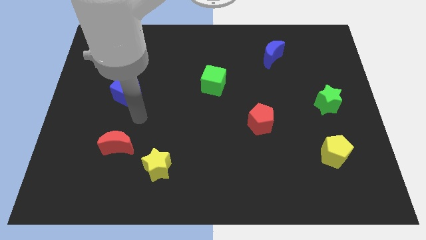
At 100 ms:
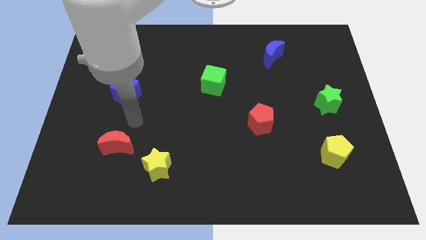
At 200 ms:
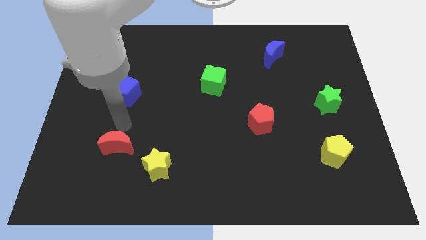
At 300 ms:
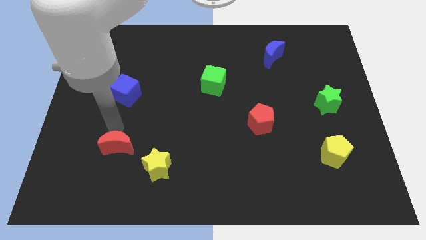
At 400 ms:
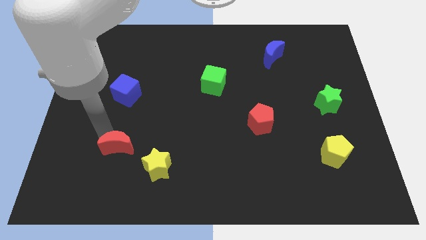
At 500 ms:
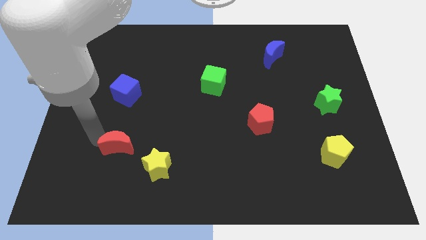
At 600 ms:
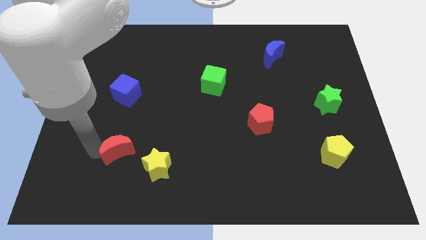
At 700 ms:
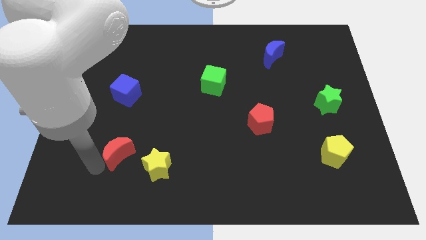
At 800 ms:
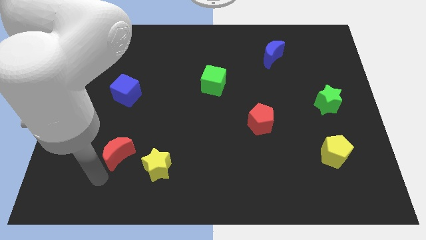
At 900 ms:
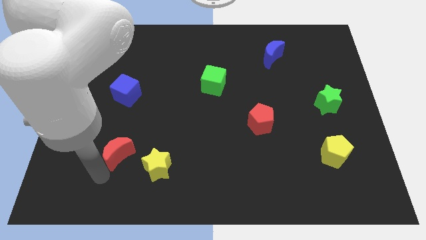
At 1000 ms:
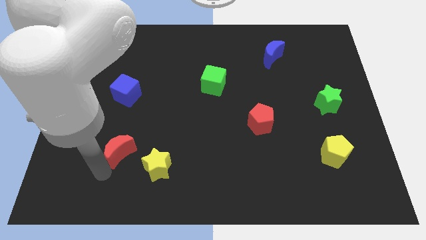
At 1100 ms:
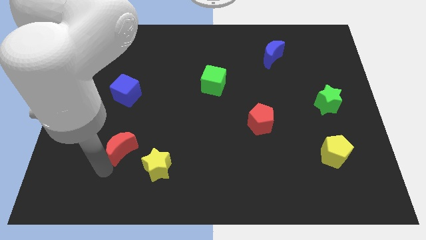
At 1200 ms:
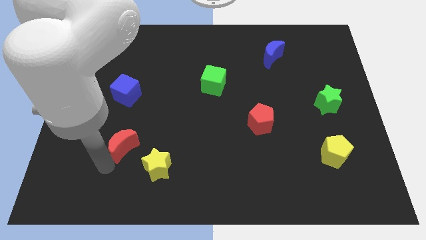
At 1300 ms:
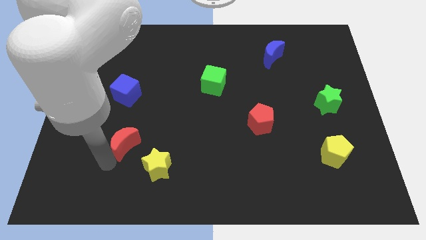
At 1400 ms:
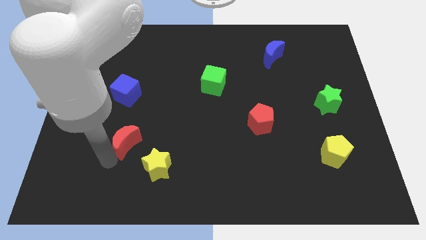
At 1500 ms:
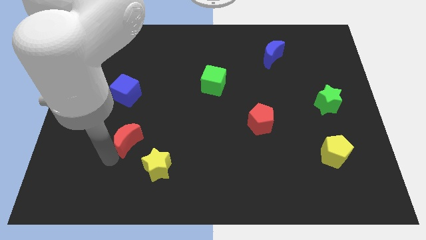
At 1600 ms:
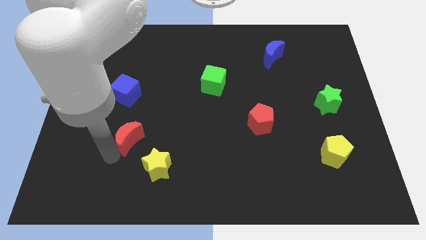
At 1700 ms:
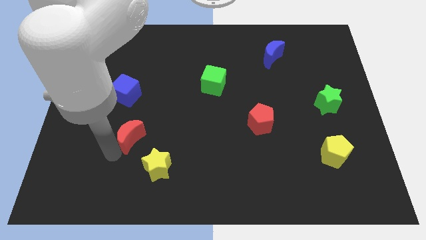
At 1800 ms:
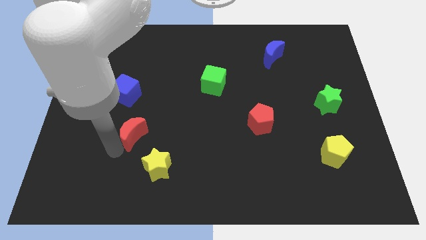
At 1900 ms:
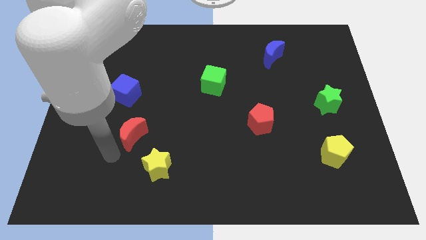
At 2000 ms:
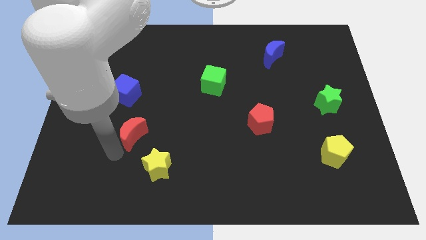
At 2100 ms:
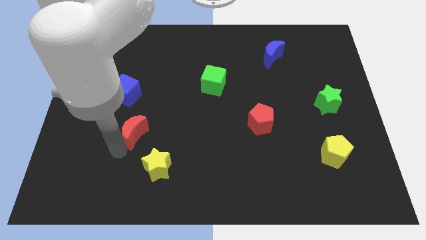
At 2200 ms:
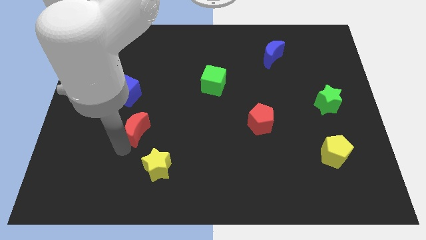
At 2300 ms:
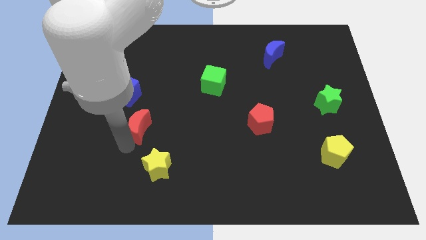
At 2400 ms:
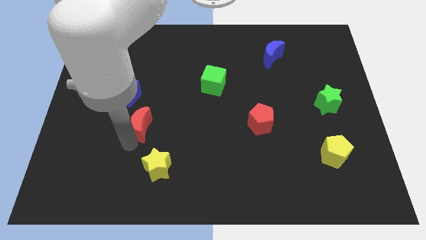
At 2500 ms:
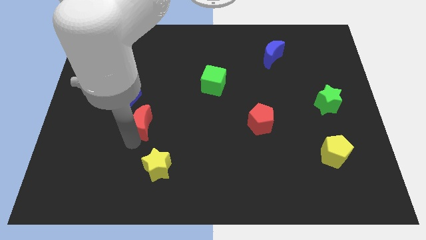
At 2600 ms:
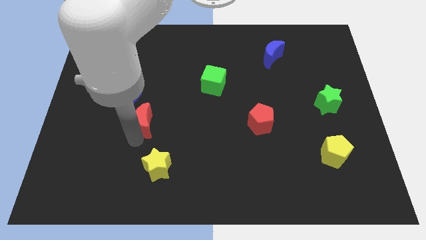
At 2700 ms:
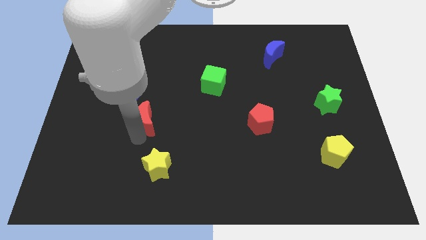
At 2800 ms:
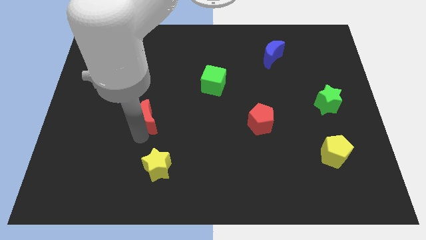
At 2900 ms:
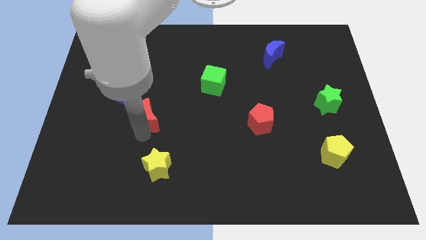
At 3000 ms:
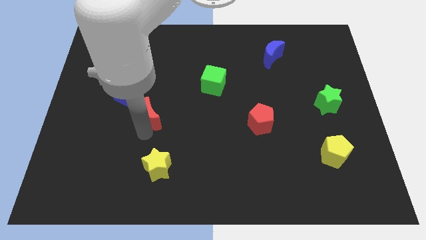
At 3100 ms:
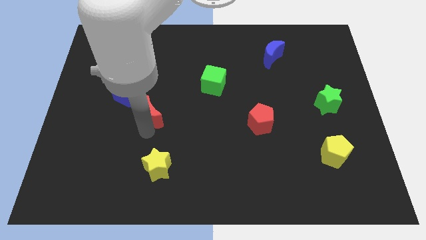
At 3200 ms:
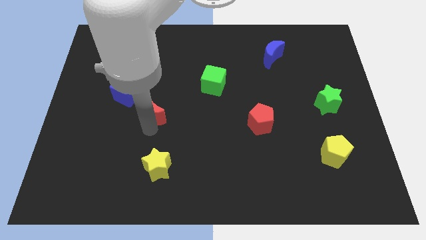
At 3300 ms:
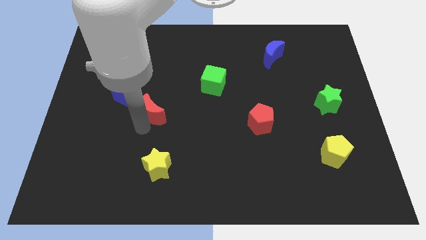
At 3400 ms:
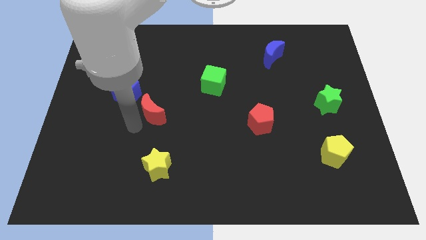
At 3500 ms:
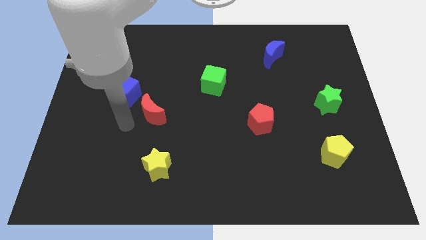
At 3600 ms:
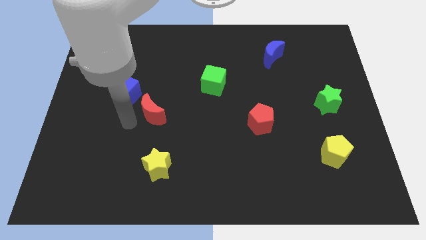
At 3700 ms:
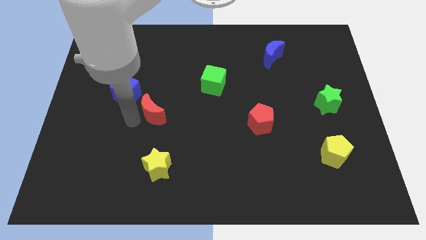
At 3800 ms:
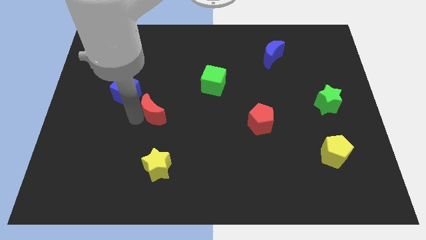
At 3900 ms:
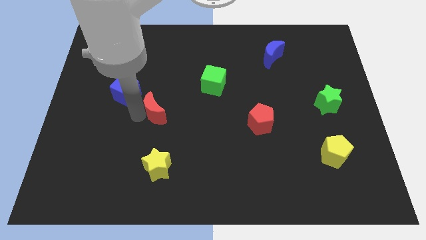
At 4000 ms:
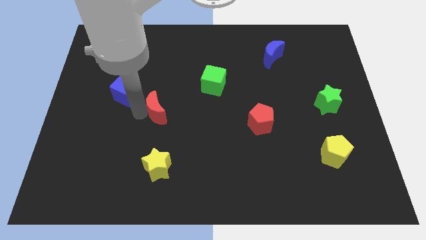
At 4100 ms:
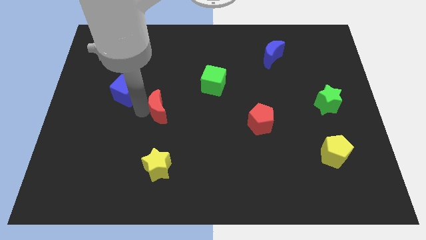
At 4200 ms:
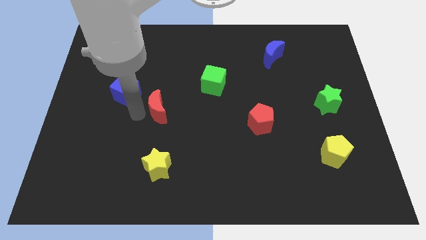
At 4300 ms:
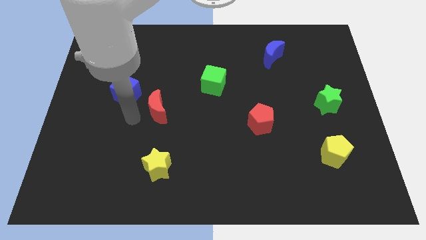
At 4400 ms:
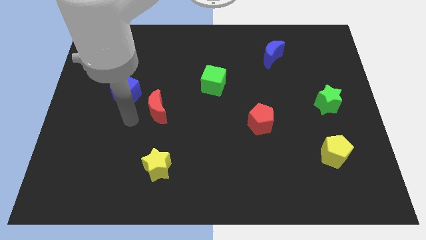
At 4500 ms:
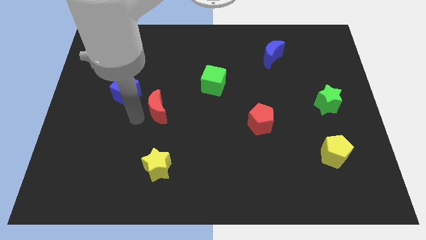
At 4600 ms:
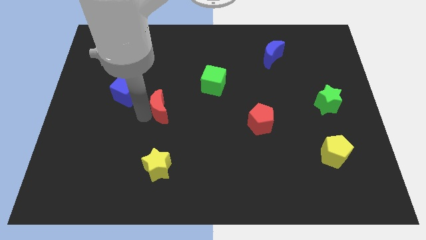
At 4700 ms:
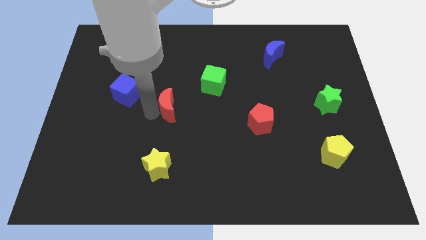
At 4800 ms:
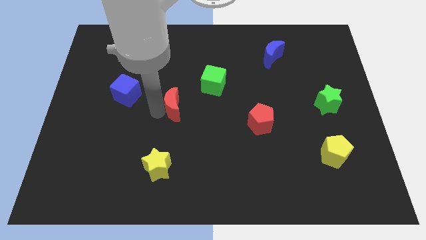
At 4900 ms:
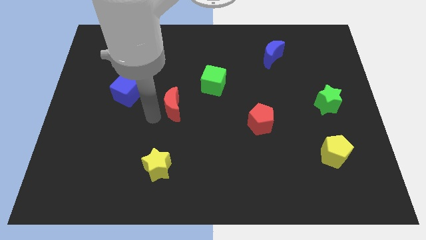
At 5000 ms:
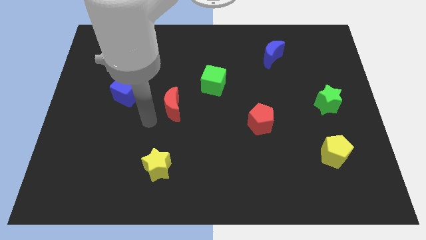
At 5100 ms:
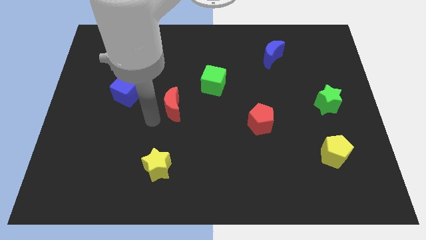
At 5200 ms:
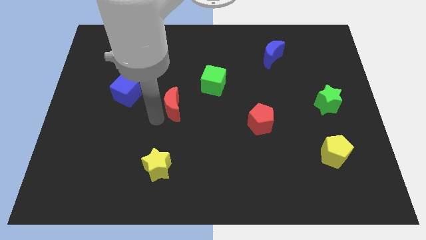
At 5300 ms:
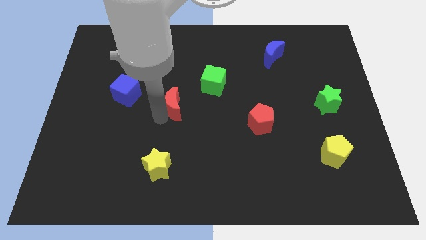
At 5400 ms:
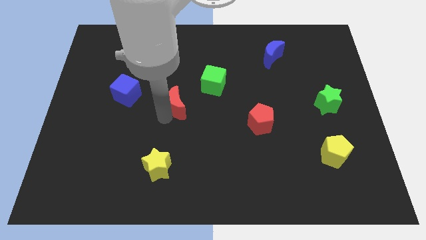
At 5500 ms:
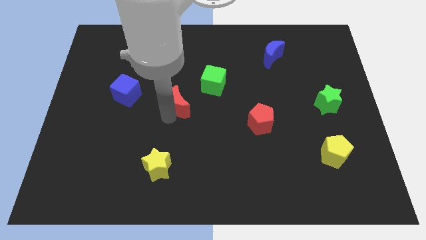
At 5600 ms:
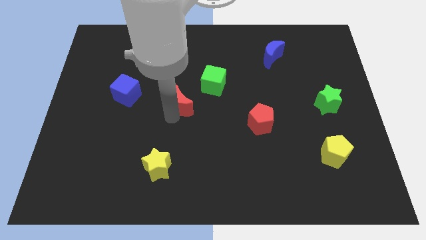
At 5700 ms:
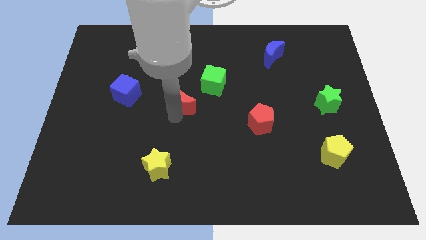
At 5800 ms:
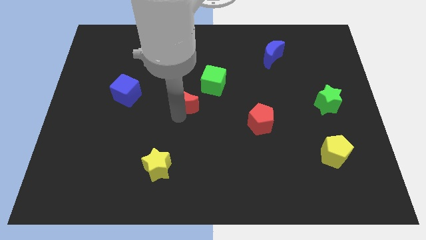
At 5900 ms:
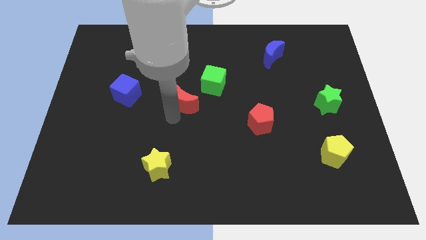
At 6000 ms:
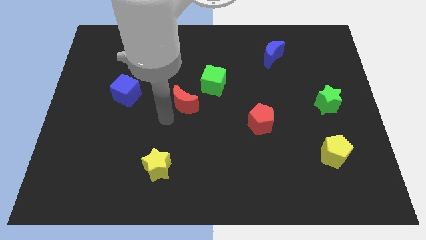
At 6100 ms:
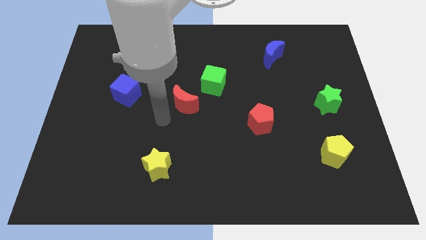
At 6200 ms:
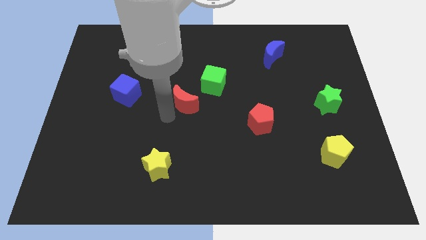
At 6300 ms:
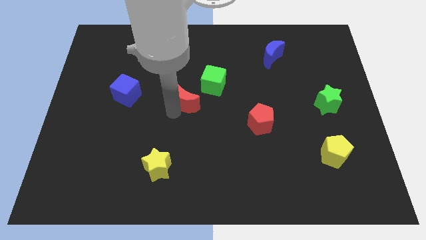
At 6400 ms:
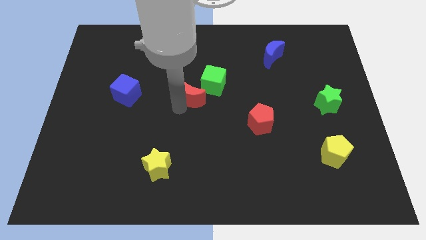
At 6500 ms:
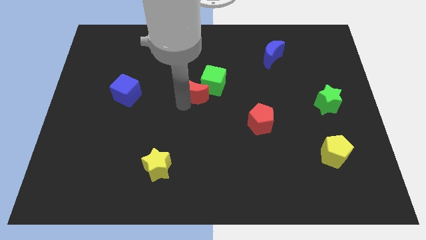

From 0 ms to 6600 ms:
slide the red moon close to the green cube

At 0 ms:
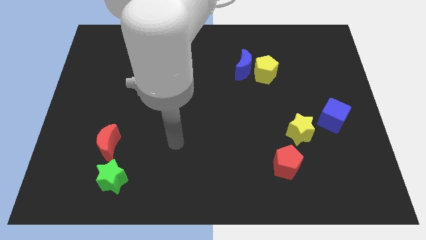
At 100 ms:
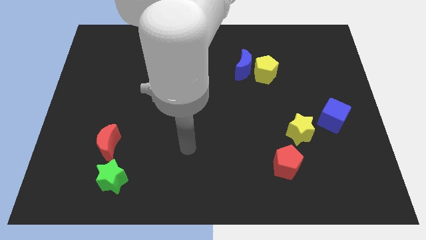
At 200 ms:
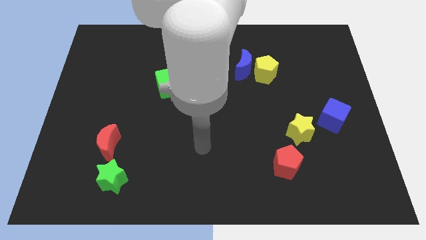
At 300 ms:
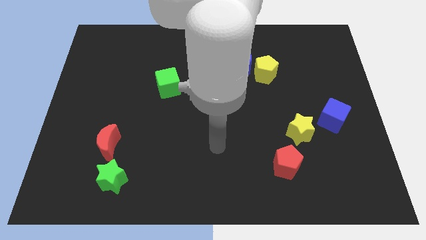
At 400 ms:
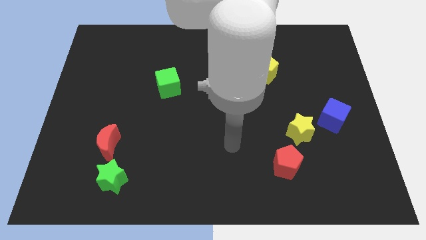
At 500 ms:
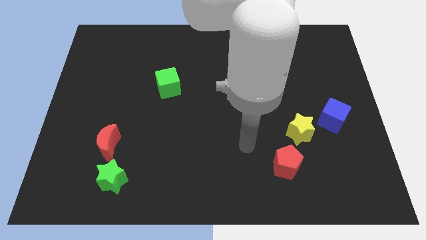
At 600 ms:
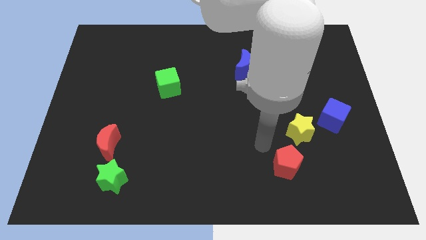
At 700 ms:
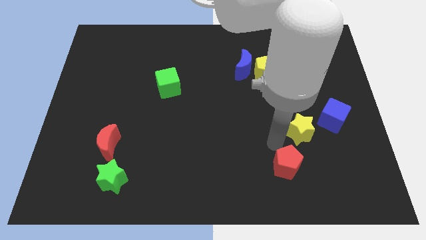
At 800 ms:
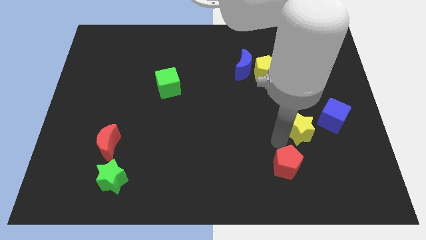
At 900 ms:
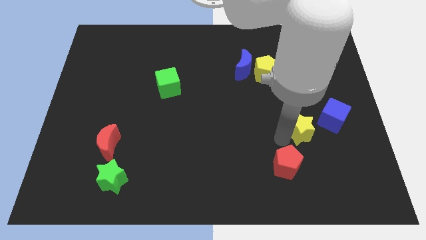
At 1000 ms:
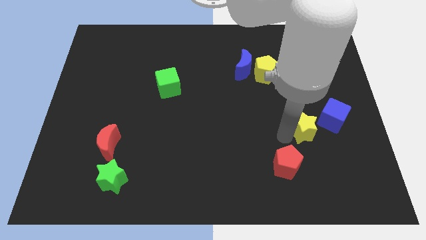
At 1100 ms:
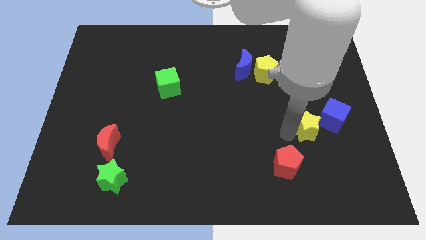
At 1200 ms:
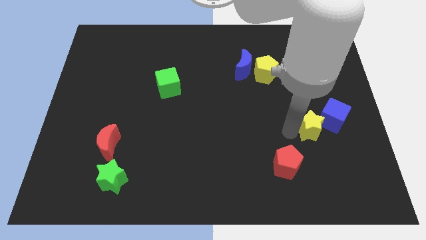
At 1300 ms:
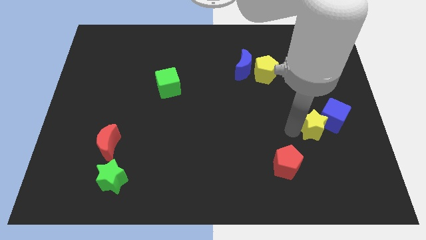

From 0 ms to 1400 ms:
put the yellow star next to the blue cube
